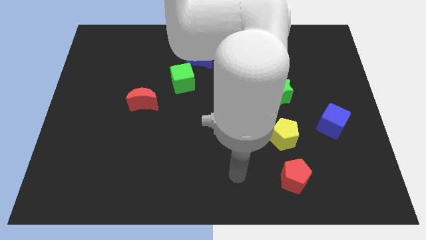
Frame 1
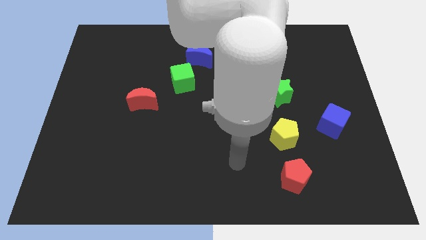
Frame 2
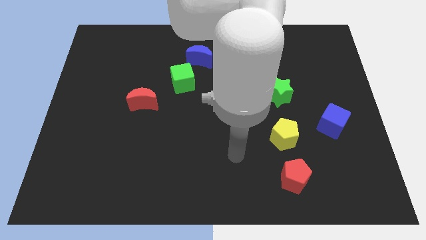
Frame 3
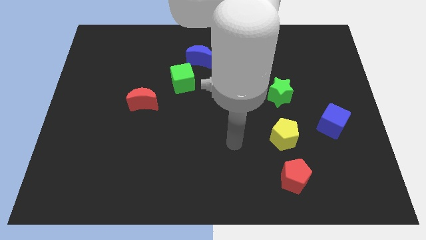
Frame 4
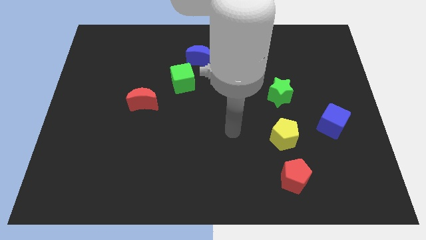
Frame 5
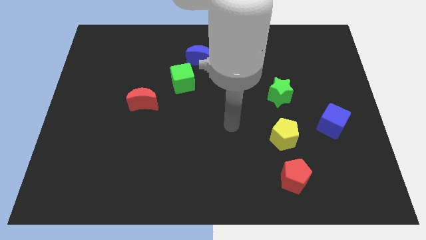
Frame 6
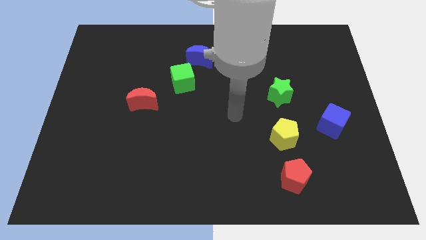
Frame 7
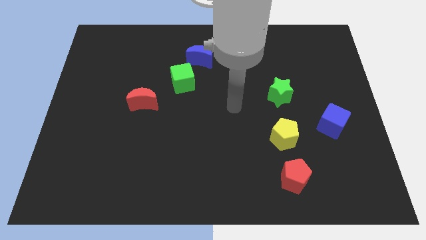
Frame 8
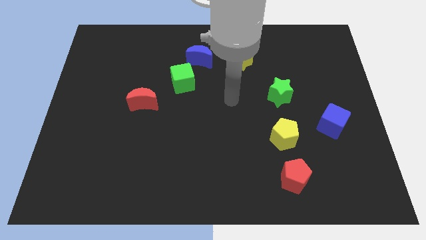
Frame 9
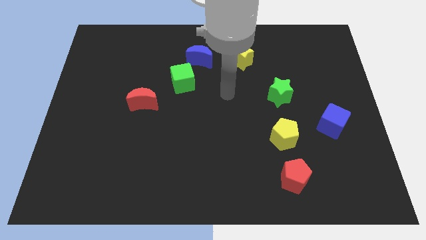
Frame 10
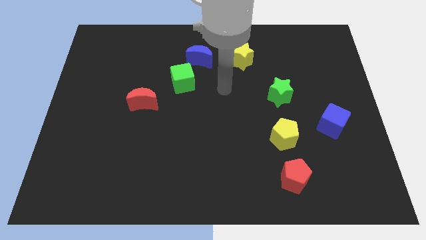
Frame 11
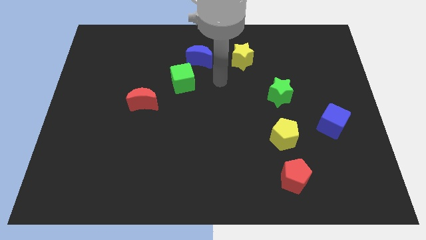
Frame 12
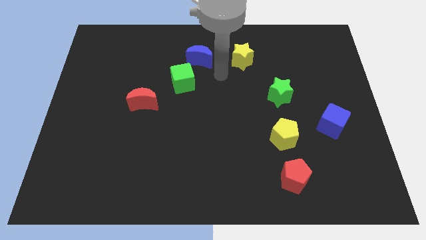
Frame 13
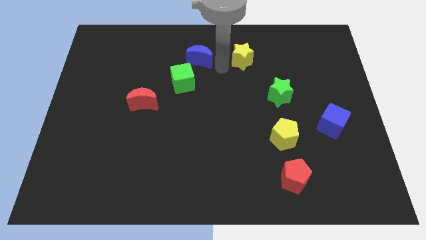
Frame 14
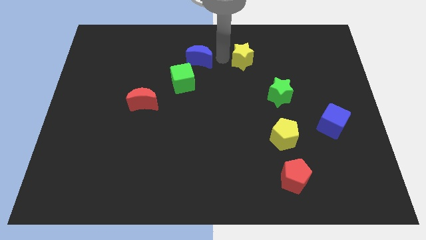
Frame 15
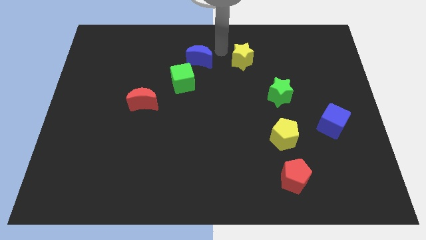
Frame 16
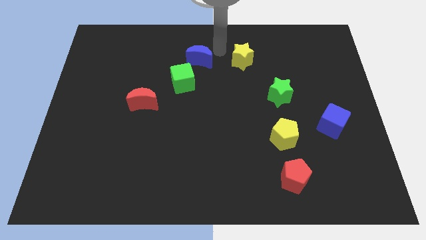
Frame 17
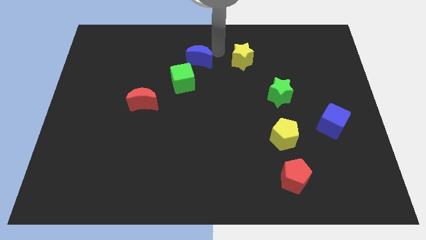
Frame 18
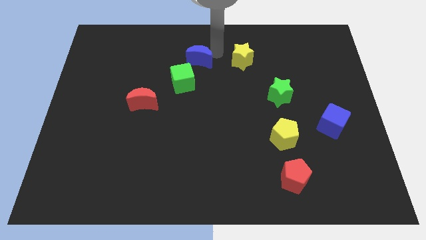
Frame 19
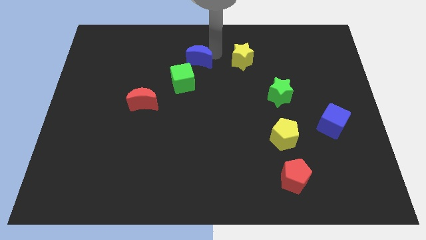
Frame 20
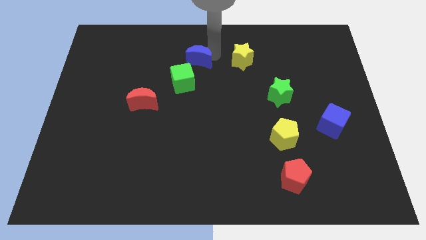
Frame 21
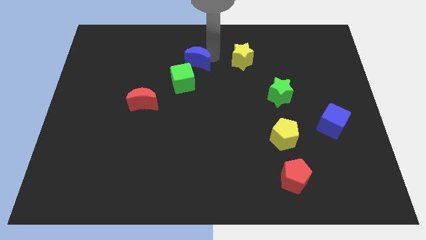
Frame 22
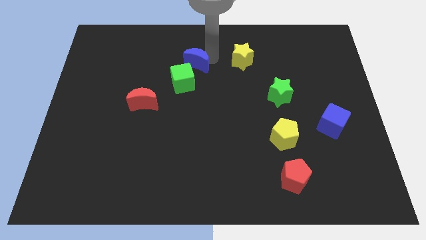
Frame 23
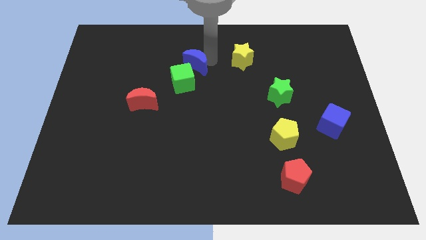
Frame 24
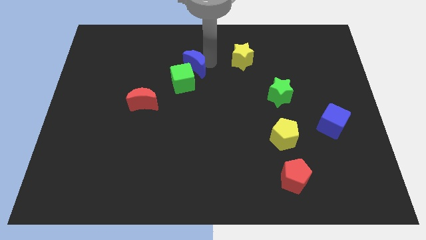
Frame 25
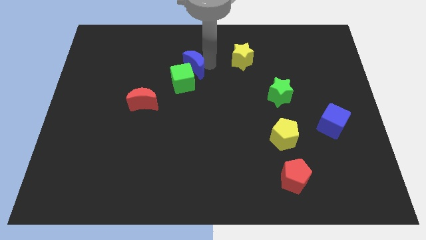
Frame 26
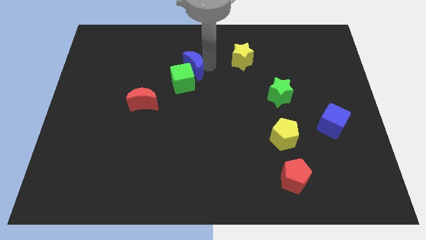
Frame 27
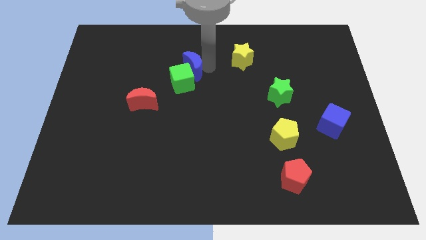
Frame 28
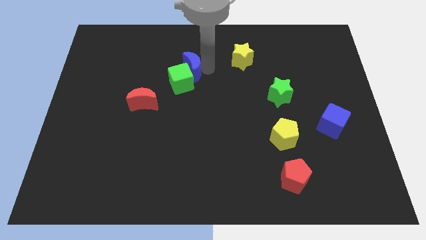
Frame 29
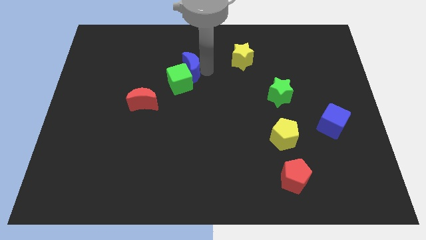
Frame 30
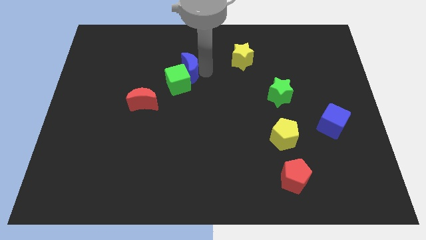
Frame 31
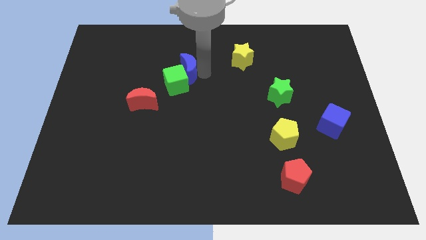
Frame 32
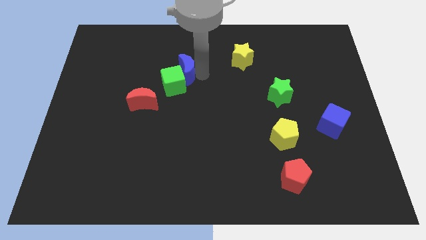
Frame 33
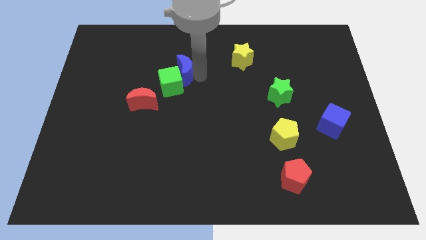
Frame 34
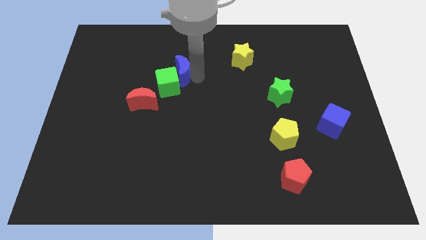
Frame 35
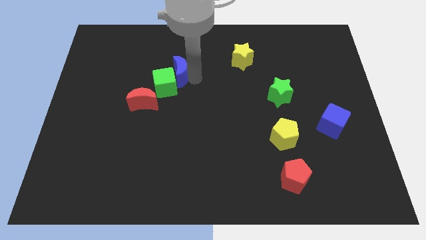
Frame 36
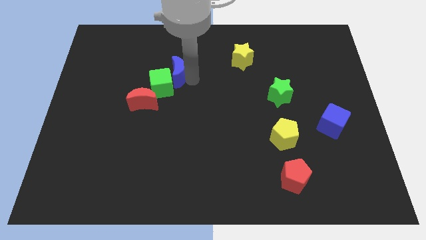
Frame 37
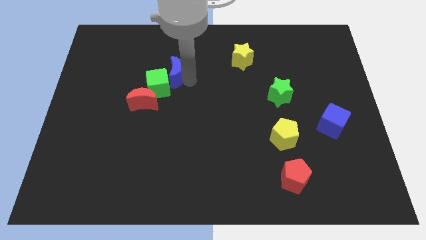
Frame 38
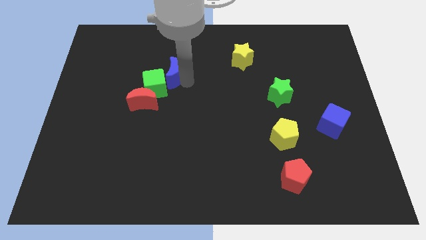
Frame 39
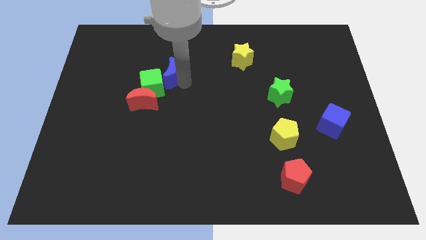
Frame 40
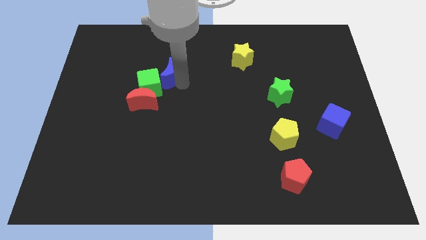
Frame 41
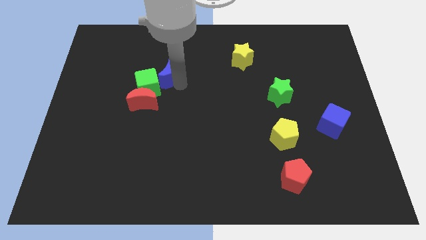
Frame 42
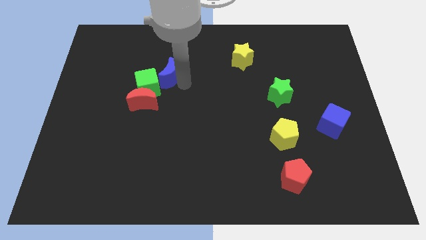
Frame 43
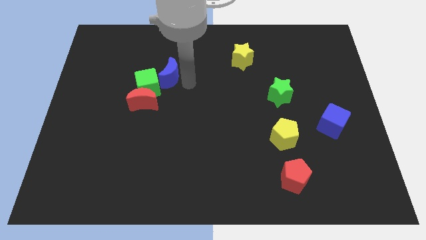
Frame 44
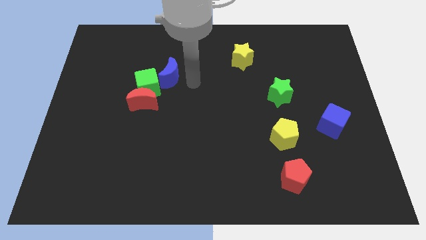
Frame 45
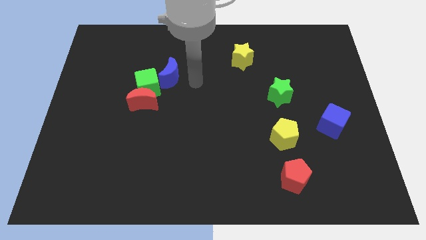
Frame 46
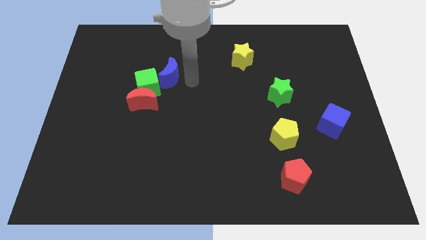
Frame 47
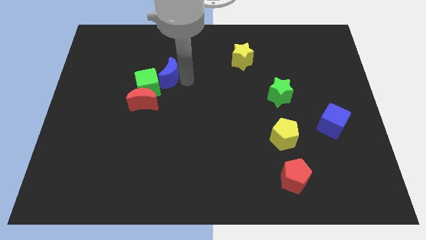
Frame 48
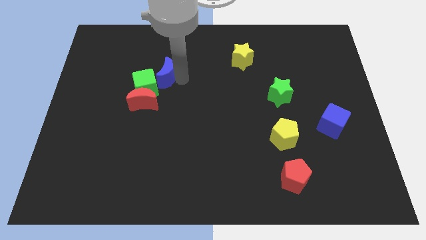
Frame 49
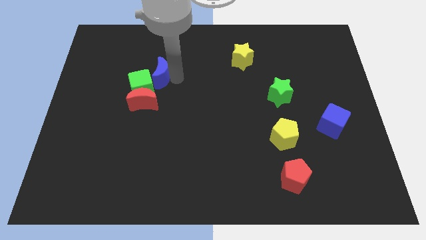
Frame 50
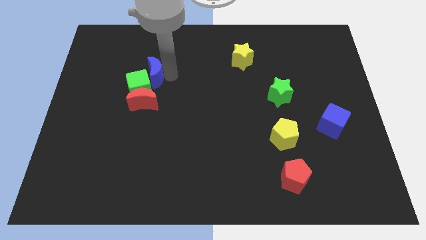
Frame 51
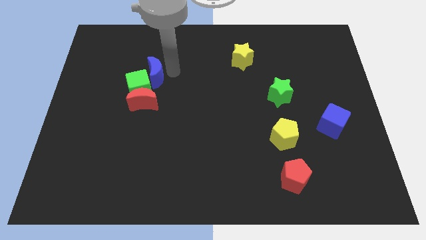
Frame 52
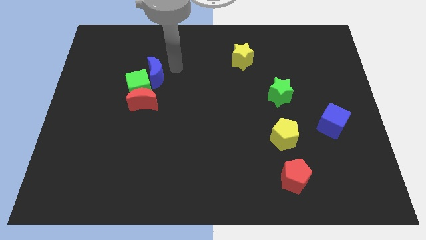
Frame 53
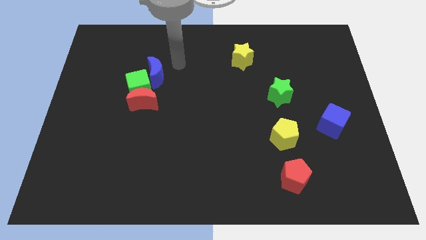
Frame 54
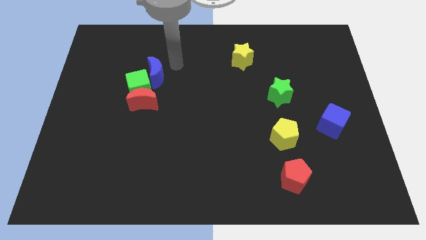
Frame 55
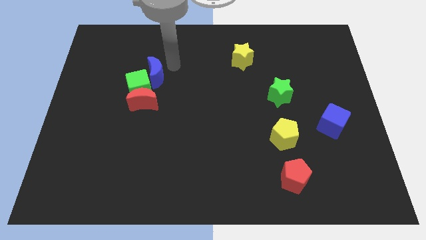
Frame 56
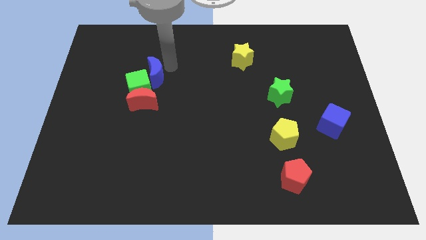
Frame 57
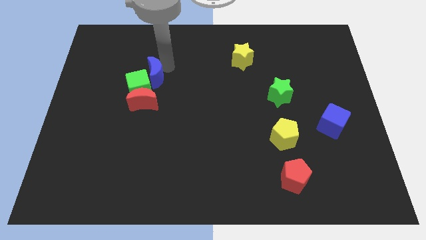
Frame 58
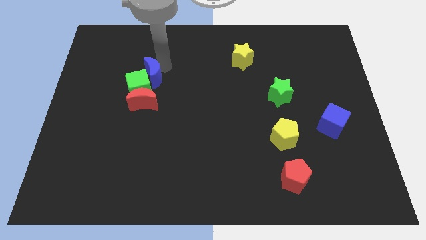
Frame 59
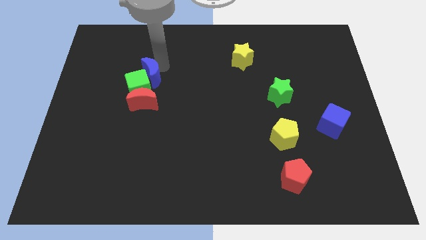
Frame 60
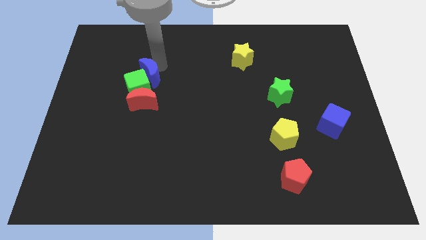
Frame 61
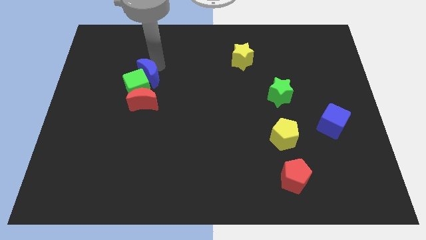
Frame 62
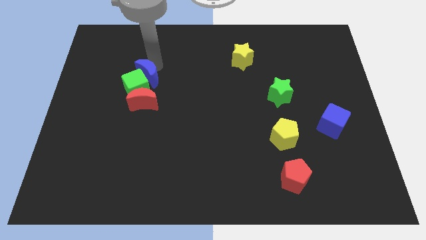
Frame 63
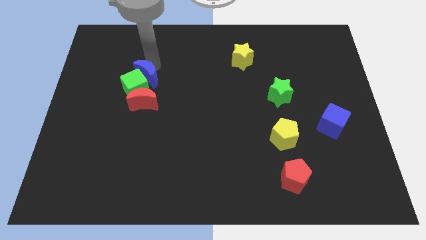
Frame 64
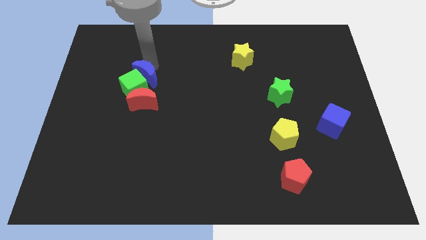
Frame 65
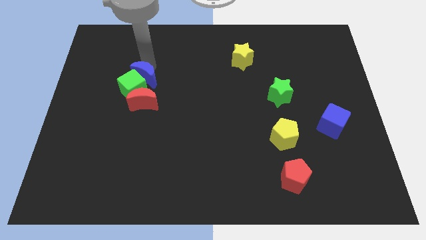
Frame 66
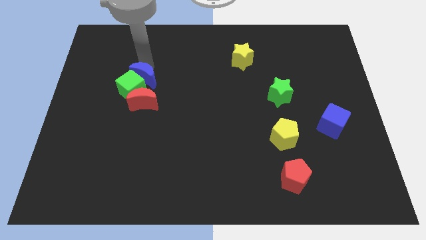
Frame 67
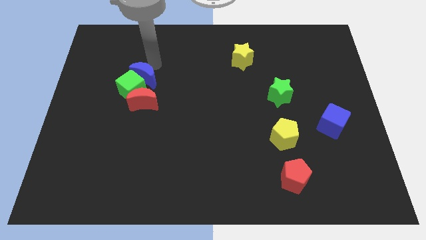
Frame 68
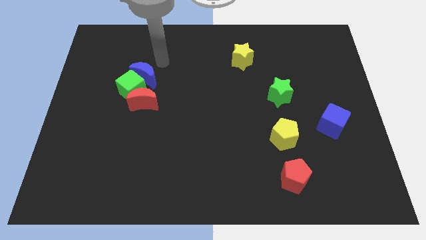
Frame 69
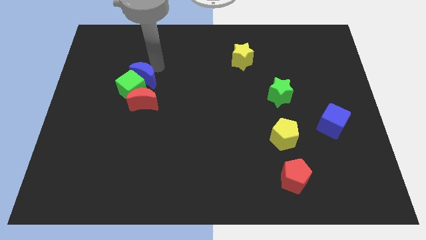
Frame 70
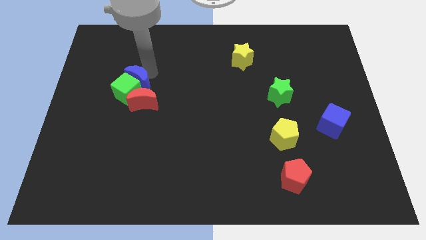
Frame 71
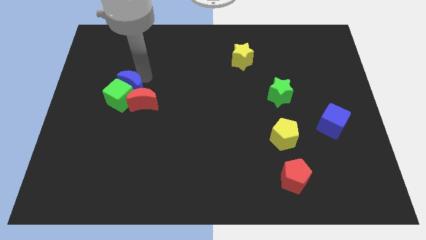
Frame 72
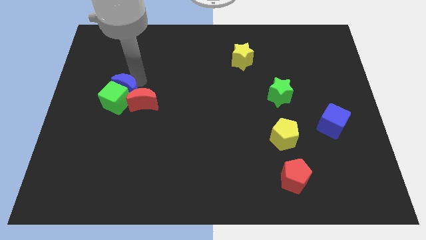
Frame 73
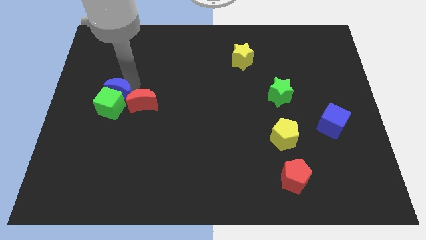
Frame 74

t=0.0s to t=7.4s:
move the blue moon downwards and left diagonally

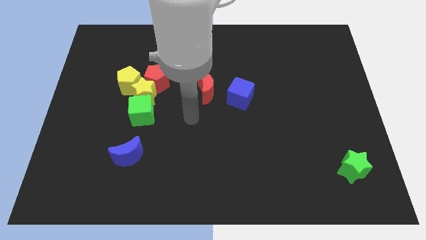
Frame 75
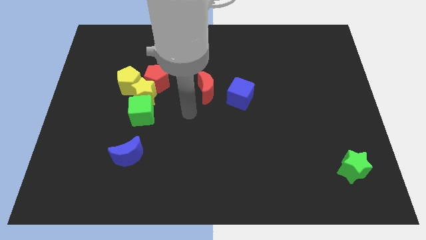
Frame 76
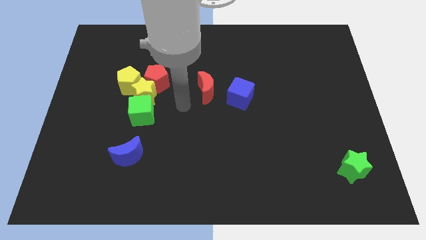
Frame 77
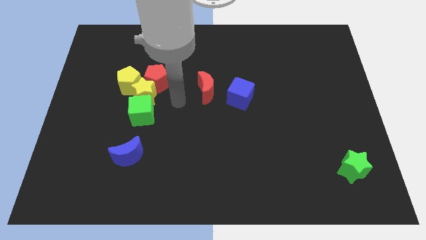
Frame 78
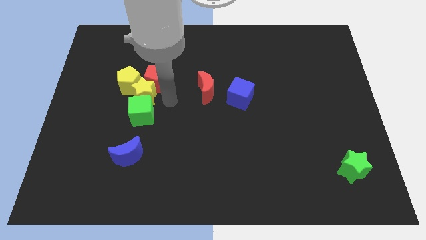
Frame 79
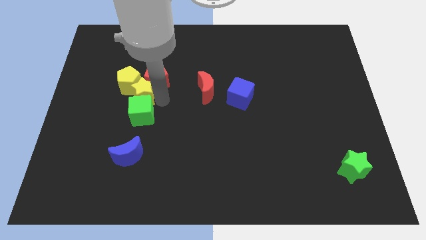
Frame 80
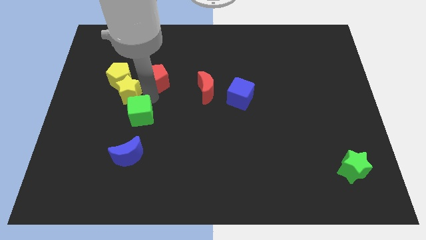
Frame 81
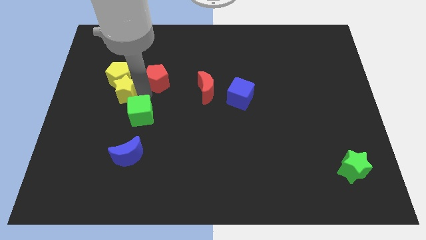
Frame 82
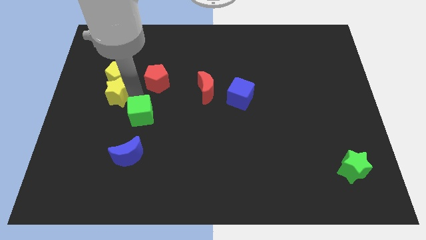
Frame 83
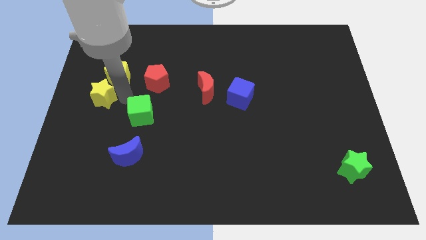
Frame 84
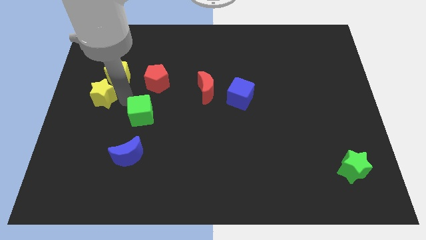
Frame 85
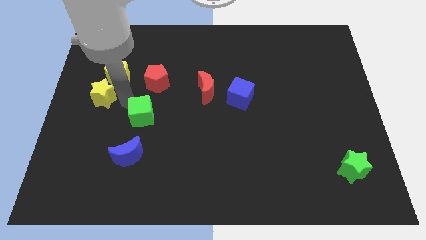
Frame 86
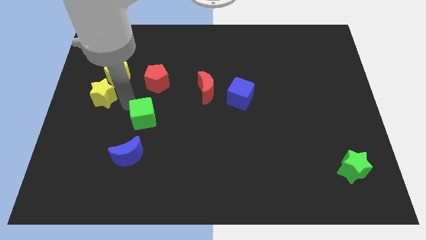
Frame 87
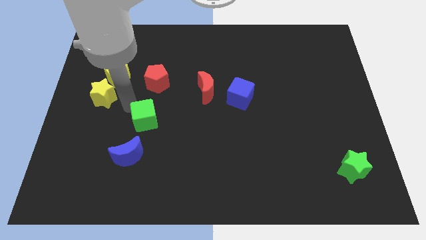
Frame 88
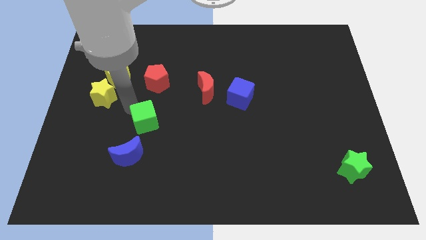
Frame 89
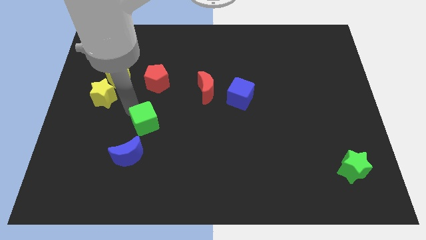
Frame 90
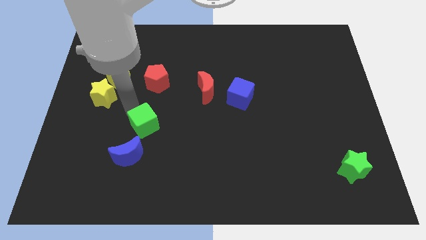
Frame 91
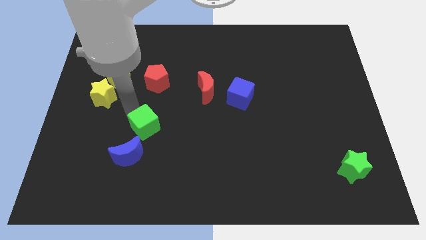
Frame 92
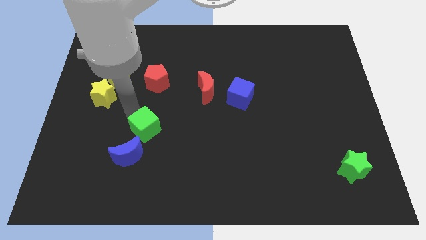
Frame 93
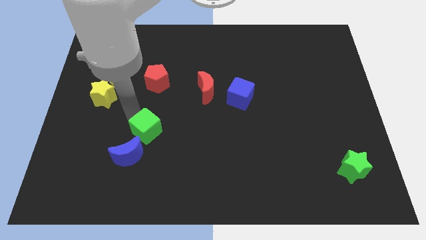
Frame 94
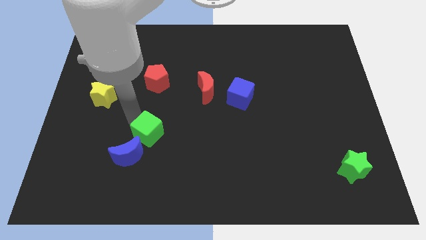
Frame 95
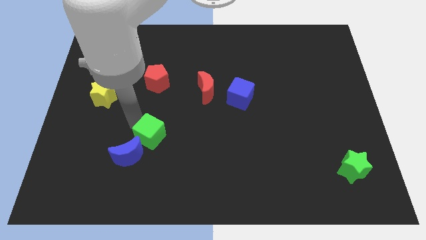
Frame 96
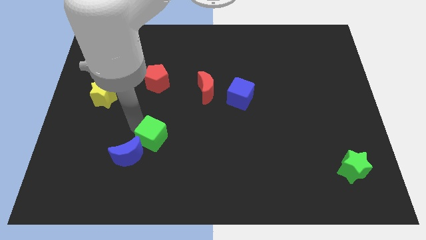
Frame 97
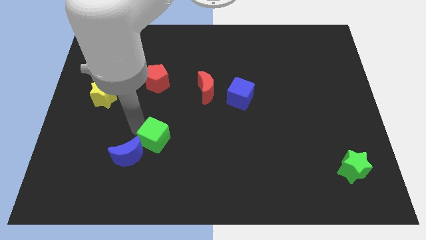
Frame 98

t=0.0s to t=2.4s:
push the green cube diagonally down and to the right slightly
